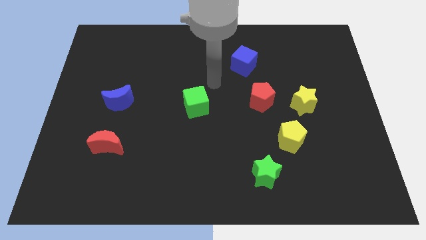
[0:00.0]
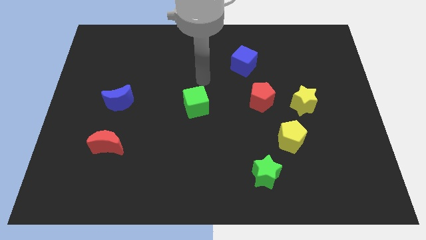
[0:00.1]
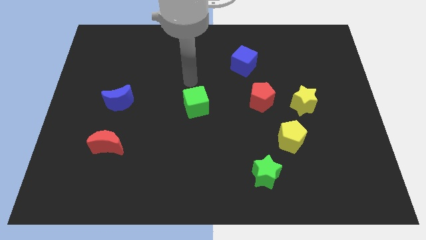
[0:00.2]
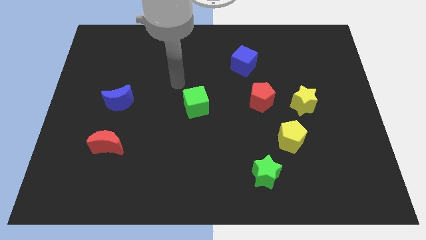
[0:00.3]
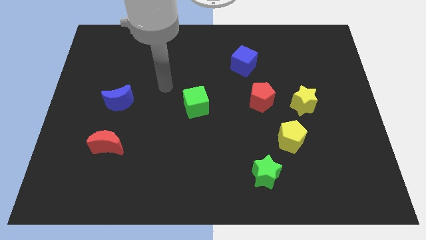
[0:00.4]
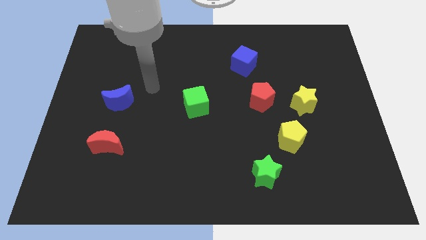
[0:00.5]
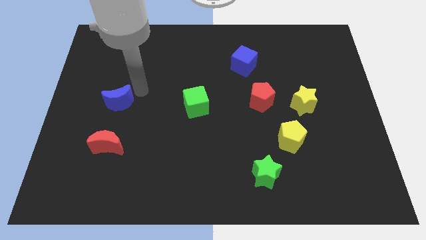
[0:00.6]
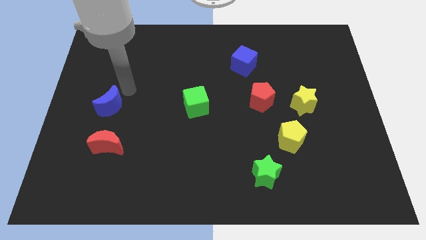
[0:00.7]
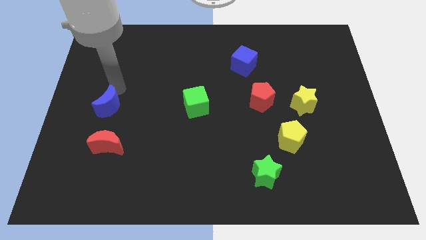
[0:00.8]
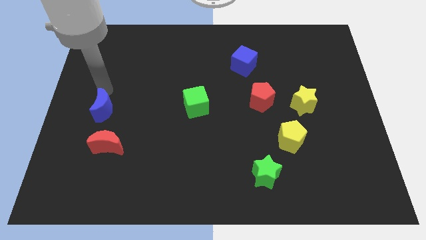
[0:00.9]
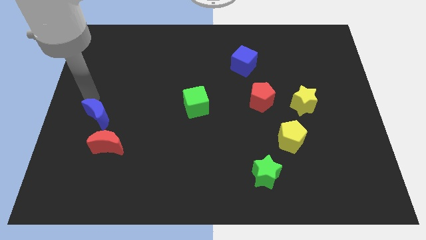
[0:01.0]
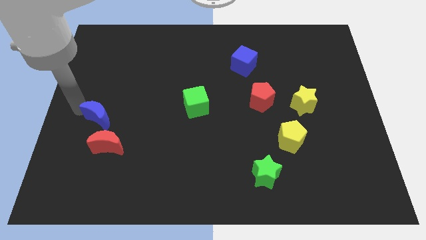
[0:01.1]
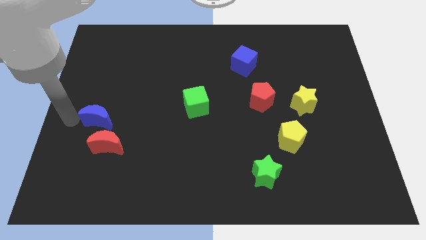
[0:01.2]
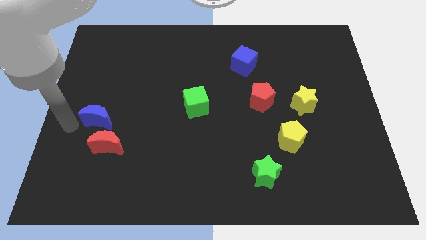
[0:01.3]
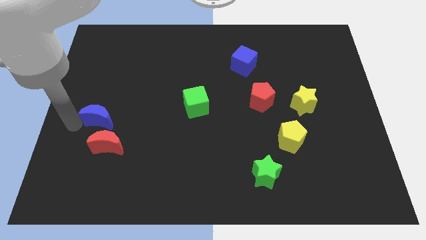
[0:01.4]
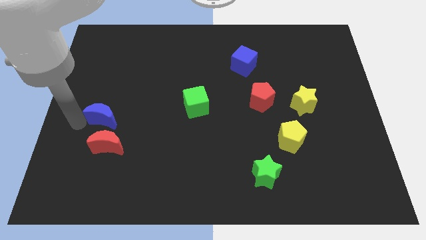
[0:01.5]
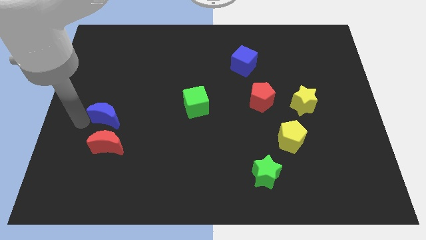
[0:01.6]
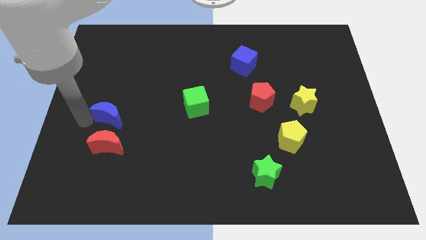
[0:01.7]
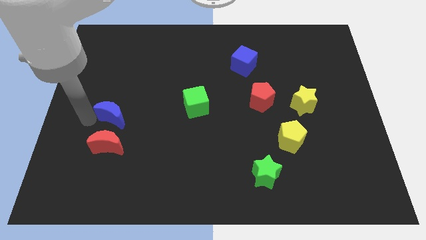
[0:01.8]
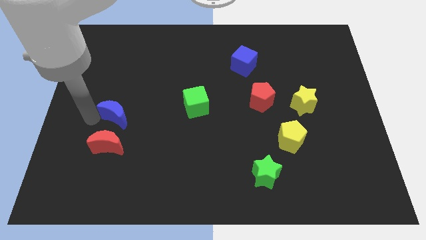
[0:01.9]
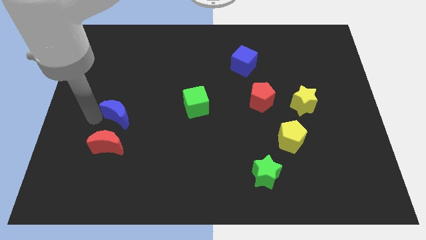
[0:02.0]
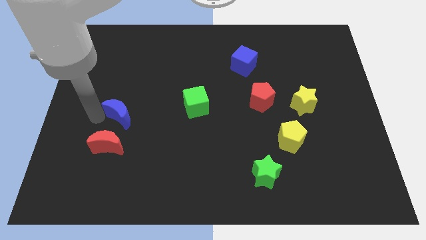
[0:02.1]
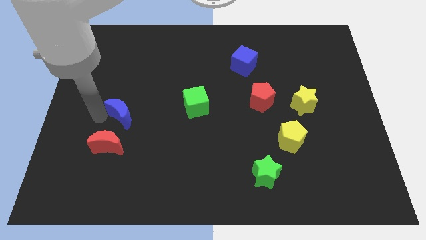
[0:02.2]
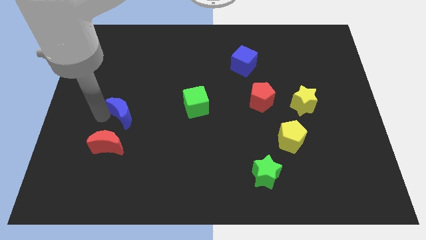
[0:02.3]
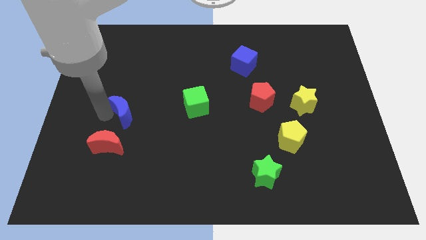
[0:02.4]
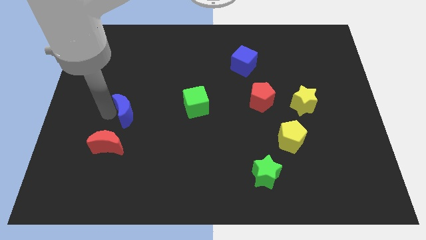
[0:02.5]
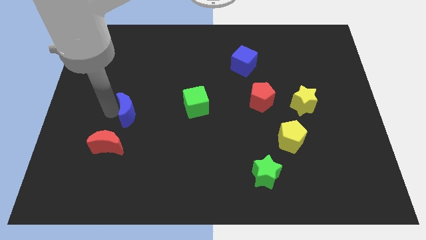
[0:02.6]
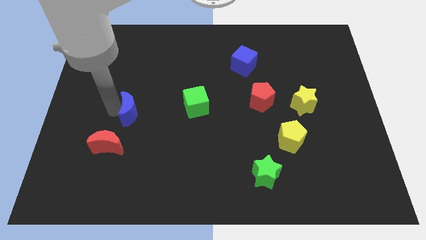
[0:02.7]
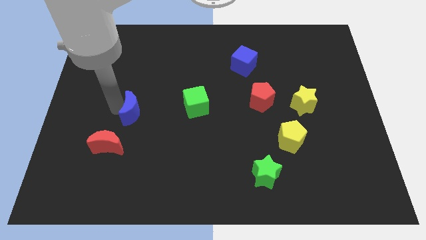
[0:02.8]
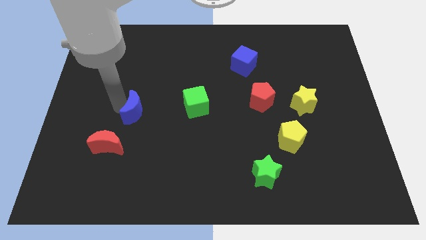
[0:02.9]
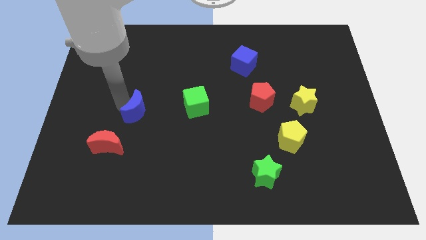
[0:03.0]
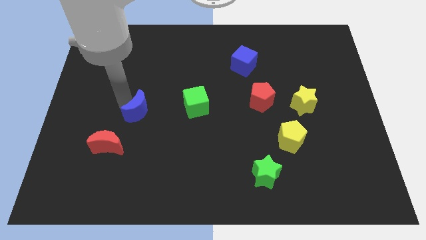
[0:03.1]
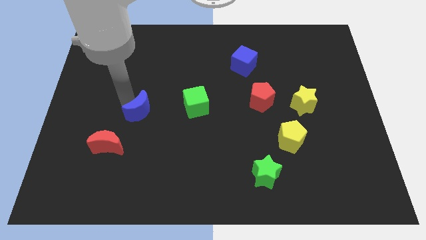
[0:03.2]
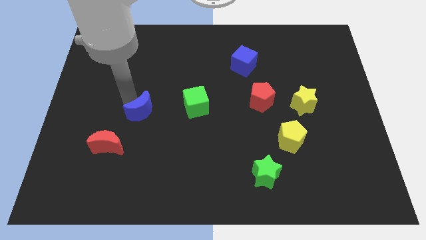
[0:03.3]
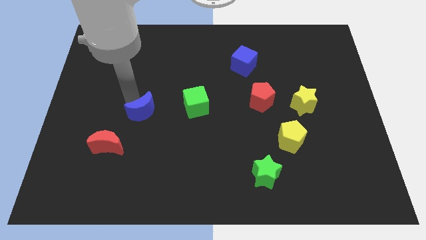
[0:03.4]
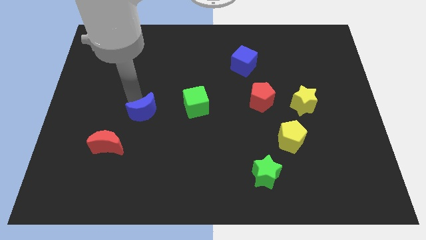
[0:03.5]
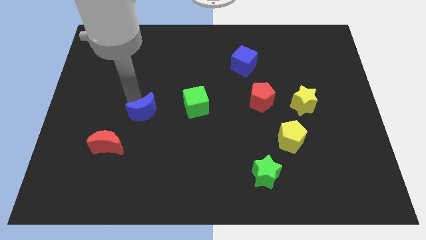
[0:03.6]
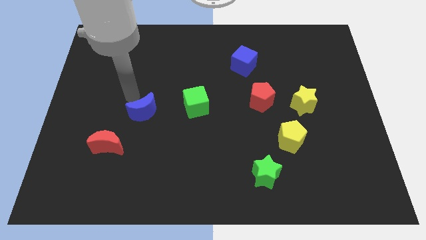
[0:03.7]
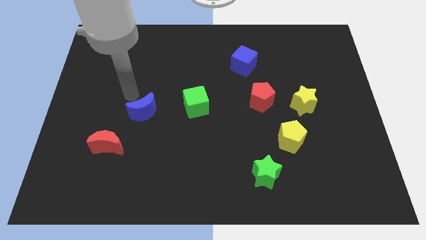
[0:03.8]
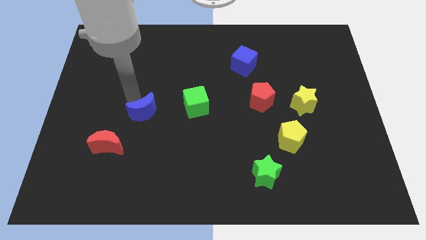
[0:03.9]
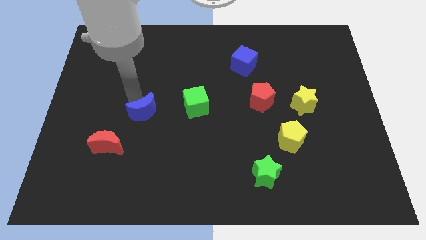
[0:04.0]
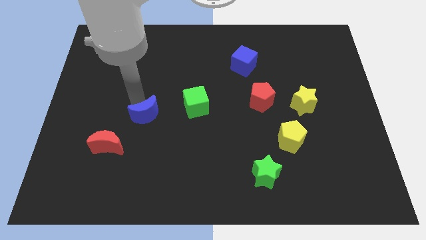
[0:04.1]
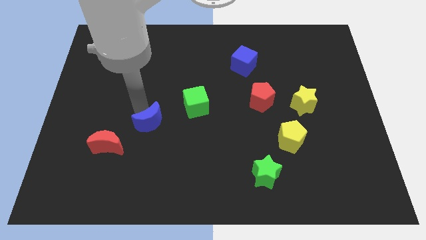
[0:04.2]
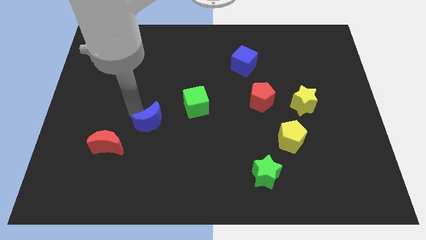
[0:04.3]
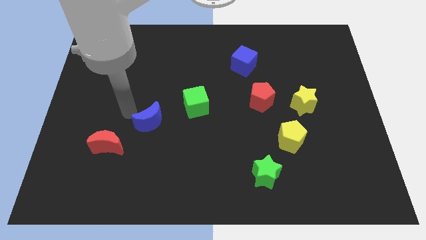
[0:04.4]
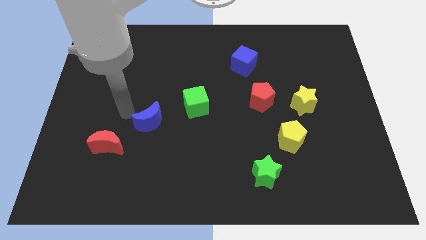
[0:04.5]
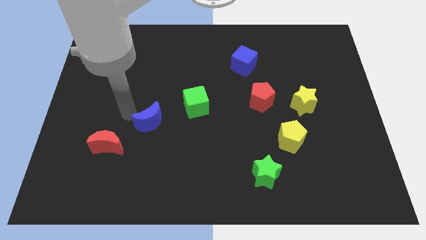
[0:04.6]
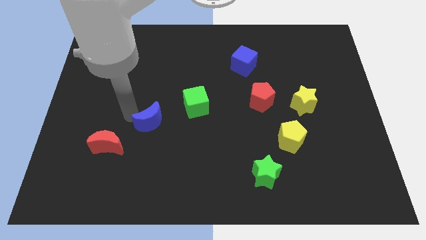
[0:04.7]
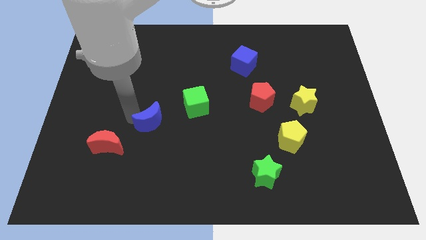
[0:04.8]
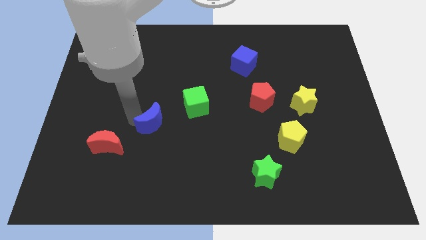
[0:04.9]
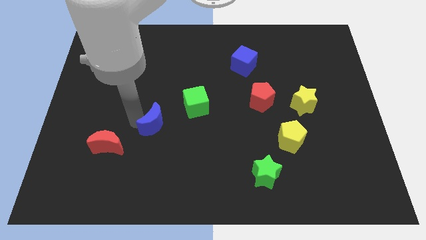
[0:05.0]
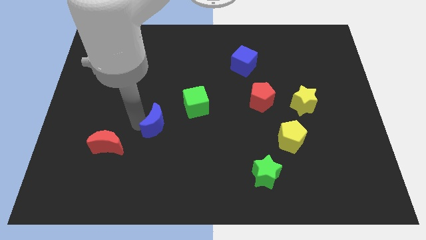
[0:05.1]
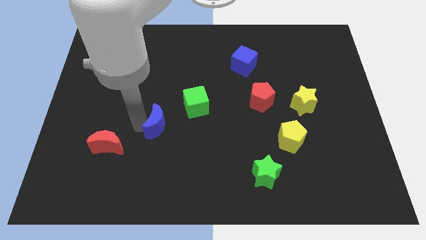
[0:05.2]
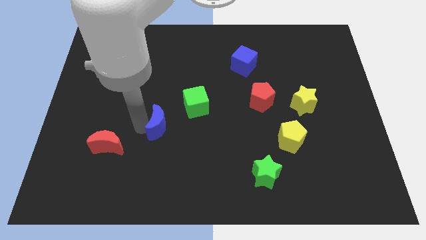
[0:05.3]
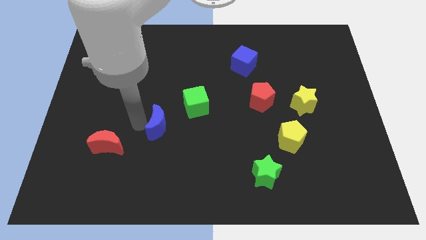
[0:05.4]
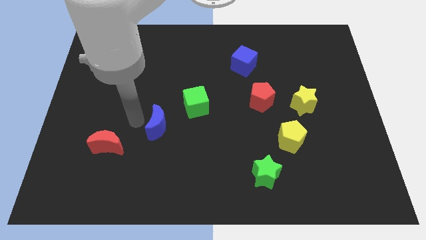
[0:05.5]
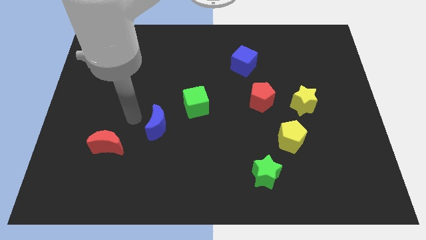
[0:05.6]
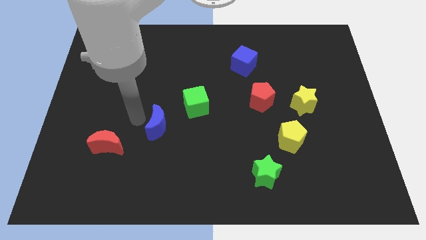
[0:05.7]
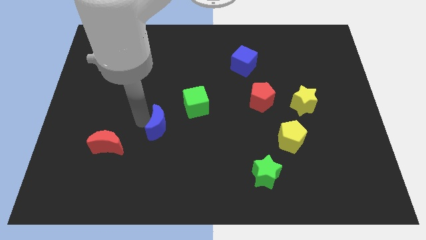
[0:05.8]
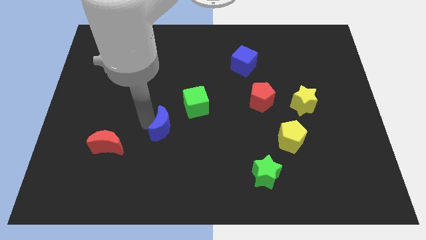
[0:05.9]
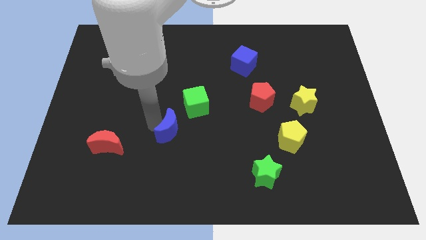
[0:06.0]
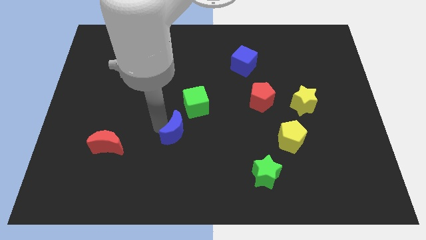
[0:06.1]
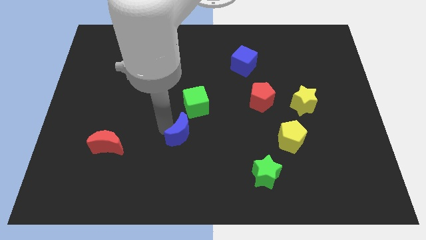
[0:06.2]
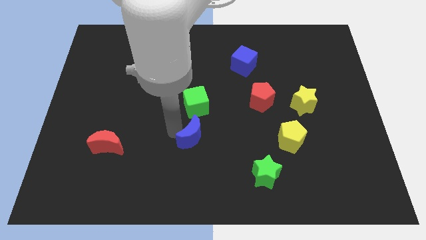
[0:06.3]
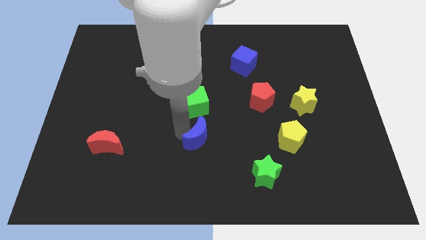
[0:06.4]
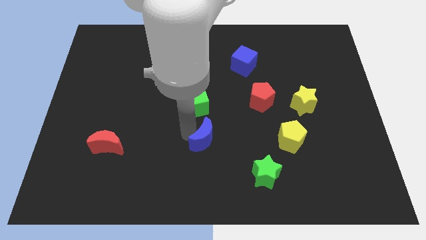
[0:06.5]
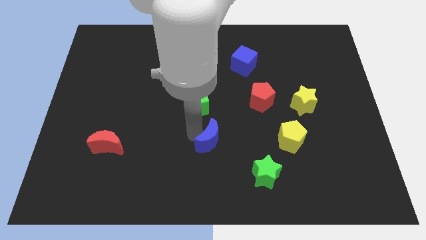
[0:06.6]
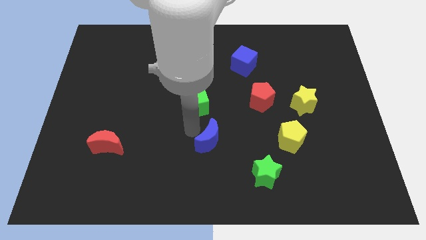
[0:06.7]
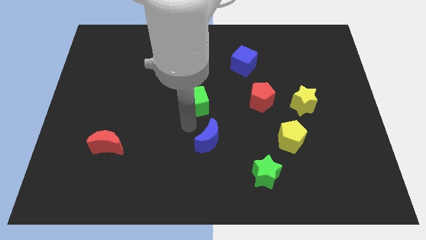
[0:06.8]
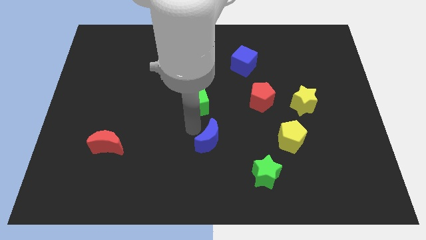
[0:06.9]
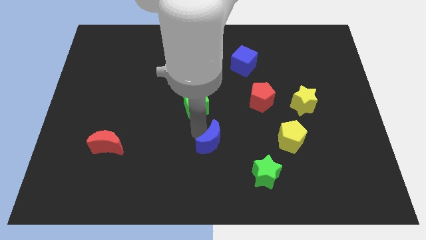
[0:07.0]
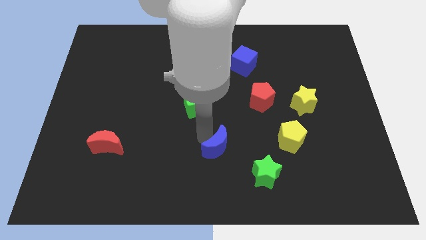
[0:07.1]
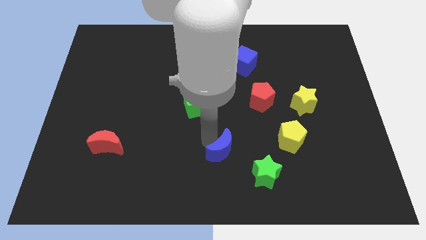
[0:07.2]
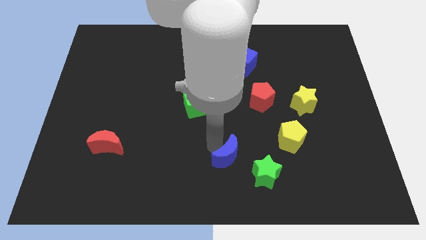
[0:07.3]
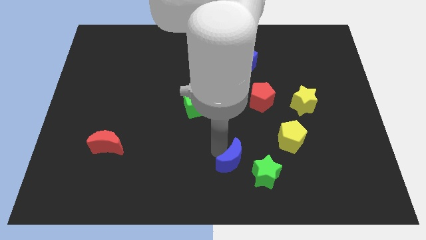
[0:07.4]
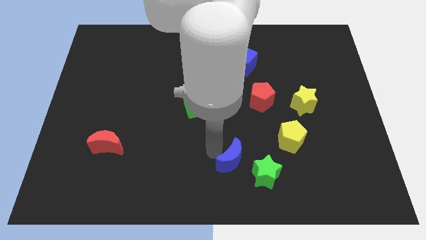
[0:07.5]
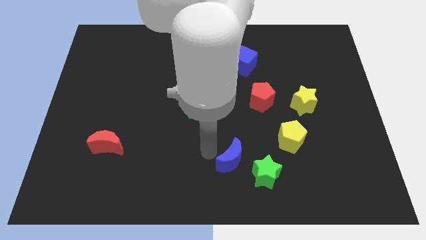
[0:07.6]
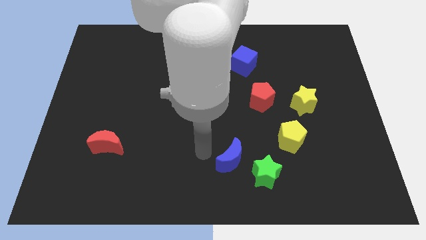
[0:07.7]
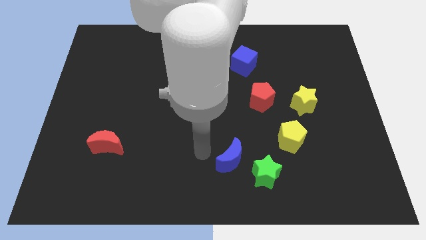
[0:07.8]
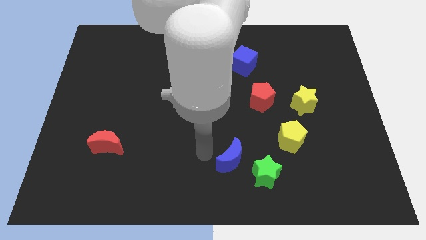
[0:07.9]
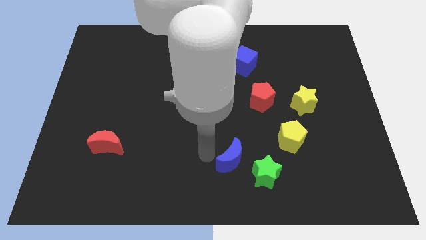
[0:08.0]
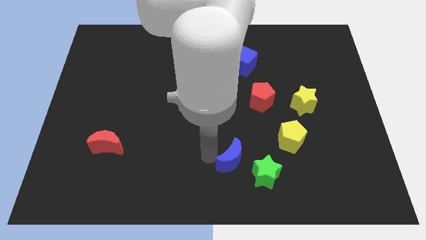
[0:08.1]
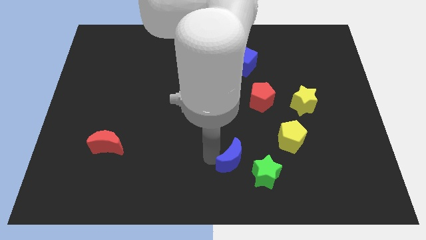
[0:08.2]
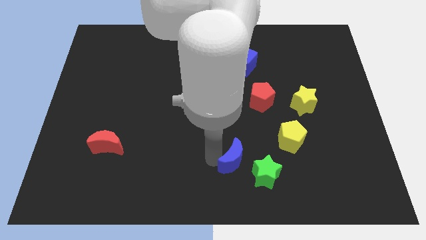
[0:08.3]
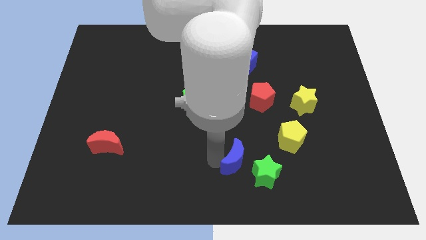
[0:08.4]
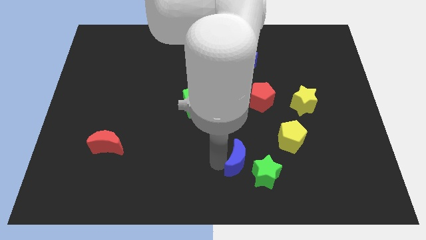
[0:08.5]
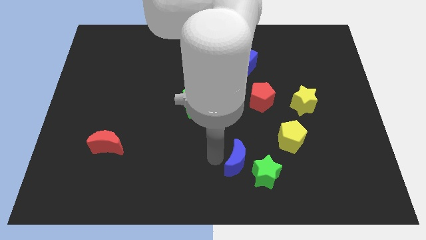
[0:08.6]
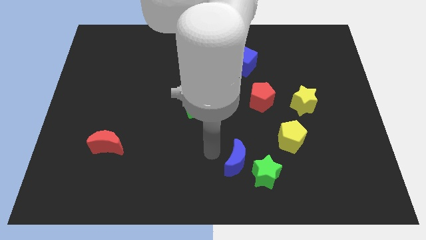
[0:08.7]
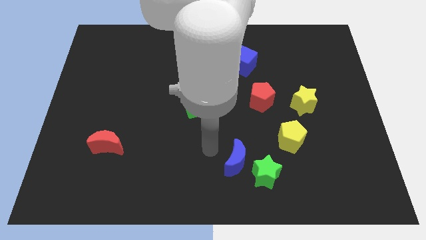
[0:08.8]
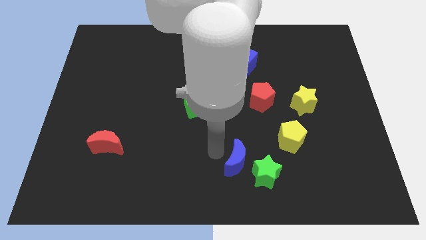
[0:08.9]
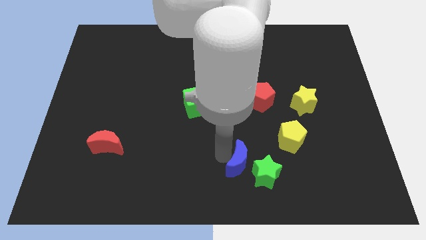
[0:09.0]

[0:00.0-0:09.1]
push the blue moon next to the green star
